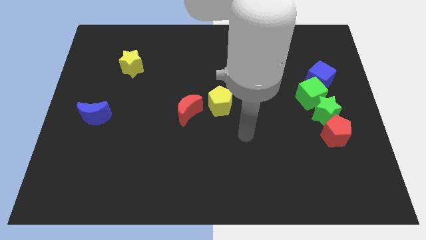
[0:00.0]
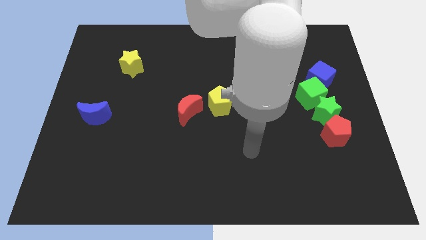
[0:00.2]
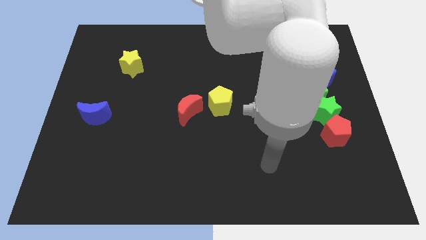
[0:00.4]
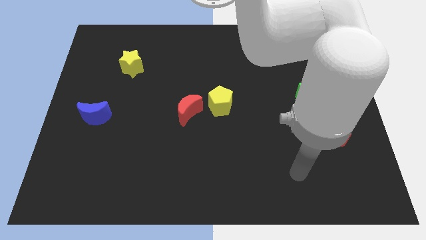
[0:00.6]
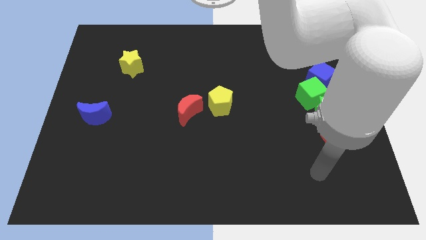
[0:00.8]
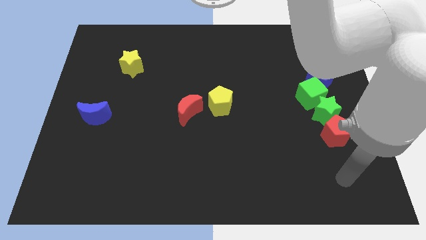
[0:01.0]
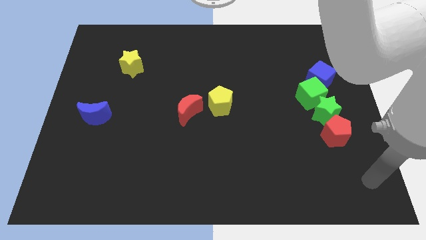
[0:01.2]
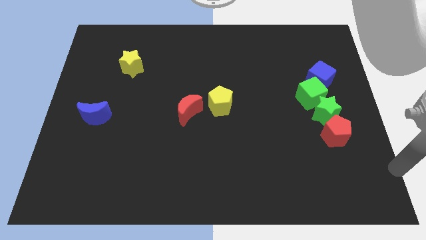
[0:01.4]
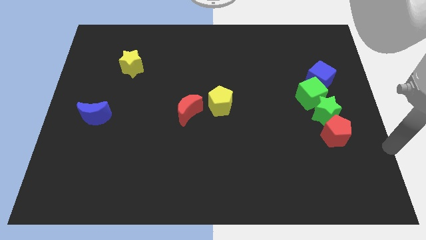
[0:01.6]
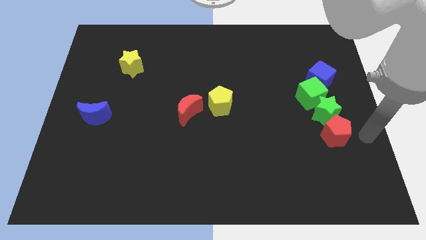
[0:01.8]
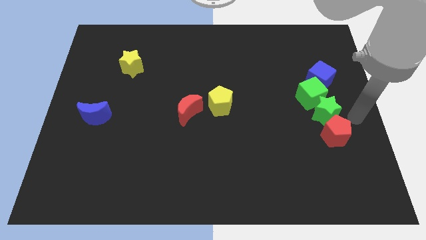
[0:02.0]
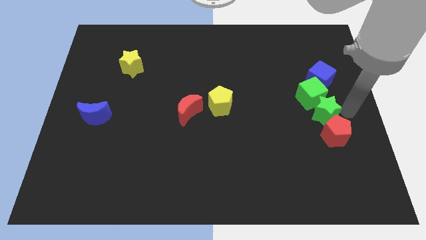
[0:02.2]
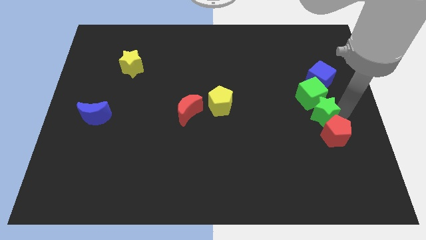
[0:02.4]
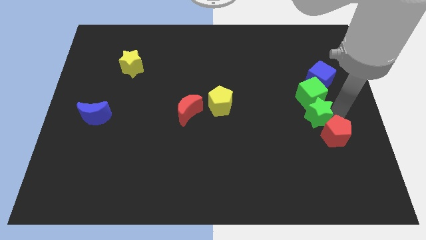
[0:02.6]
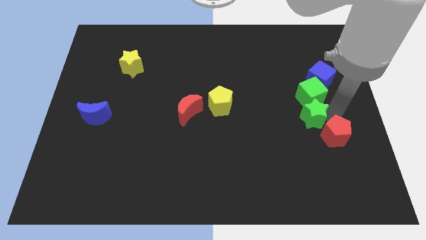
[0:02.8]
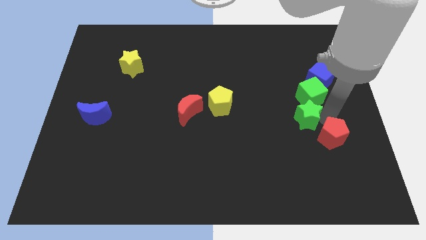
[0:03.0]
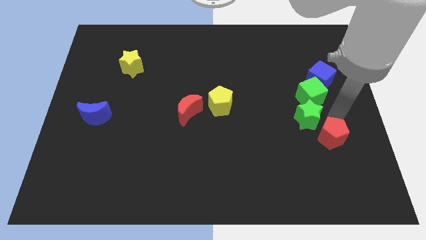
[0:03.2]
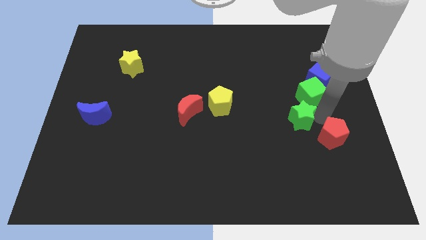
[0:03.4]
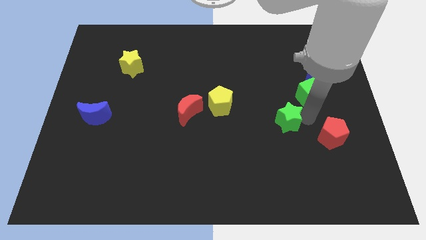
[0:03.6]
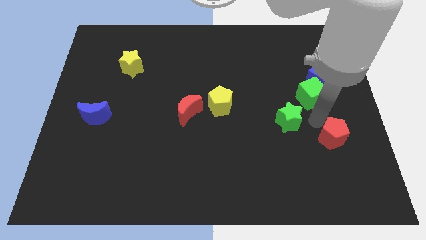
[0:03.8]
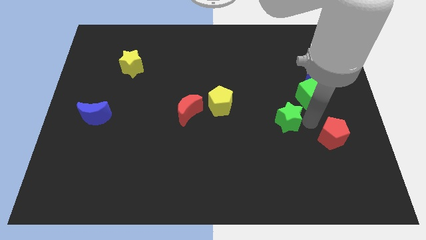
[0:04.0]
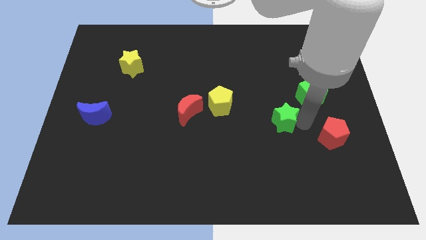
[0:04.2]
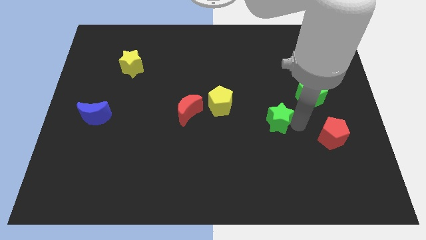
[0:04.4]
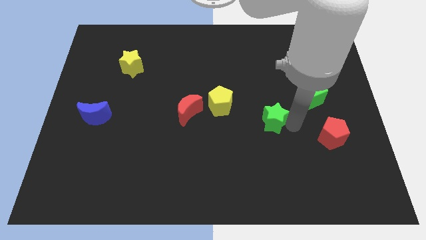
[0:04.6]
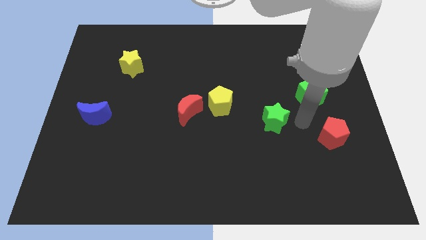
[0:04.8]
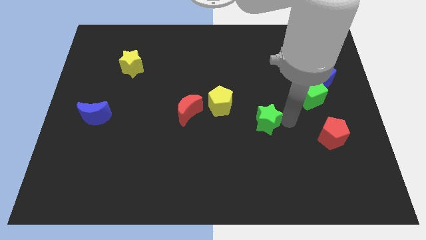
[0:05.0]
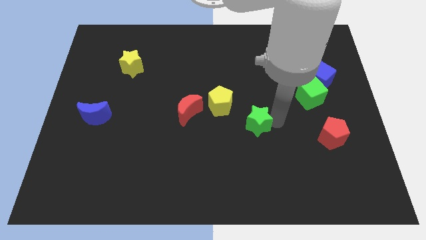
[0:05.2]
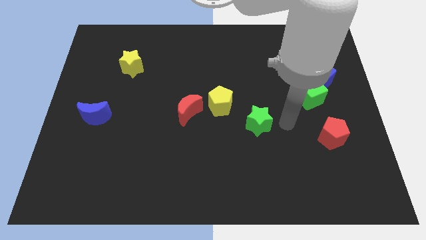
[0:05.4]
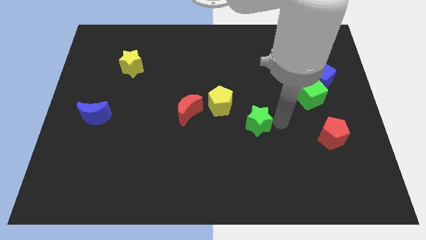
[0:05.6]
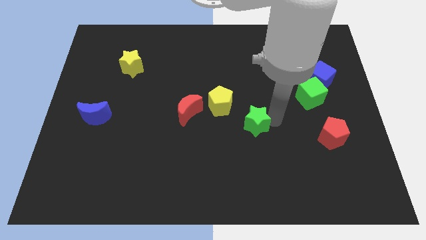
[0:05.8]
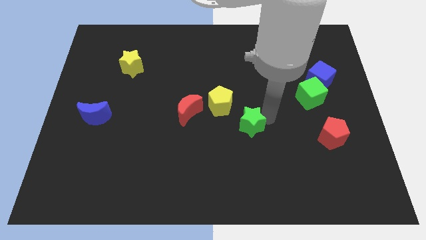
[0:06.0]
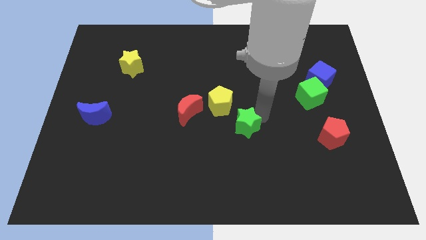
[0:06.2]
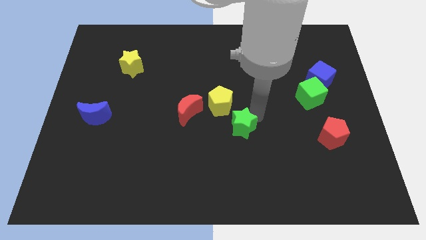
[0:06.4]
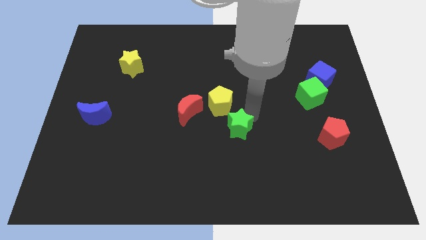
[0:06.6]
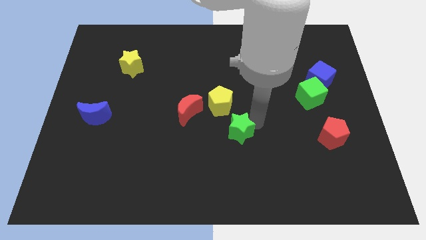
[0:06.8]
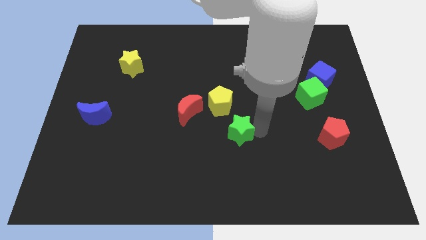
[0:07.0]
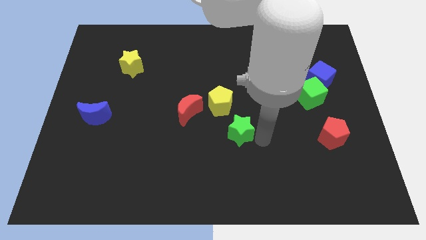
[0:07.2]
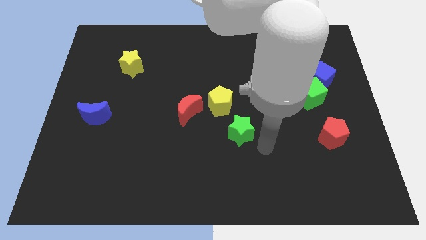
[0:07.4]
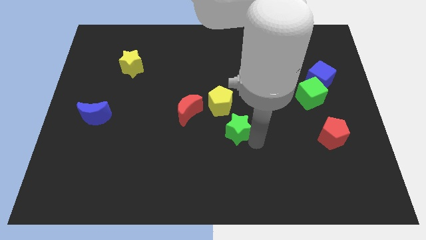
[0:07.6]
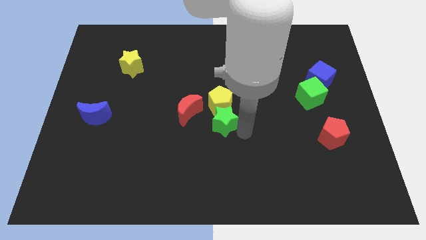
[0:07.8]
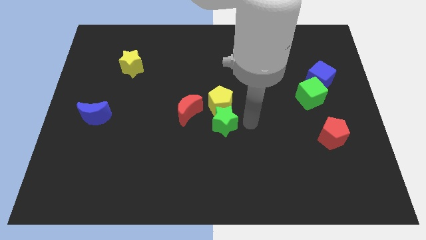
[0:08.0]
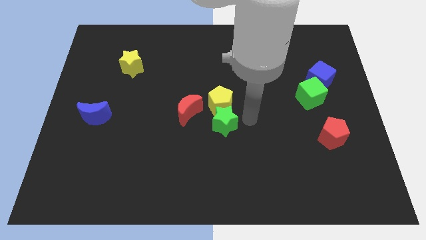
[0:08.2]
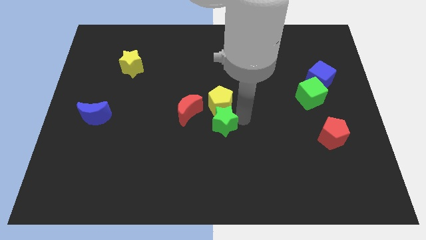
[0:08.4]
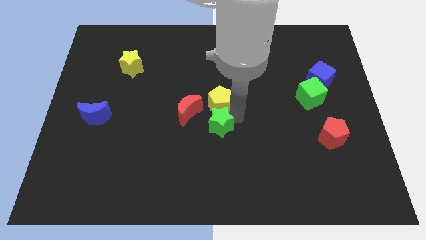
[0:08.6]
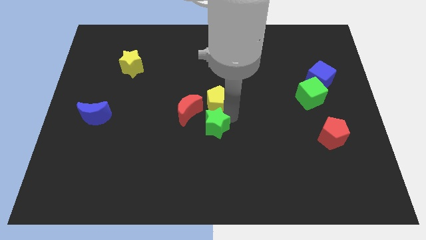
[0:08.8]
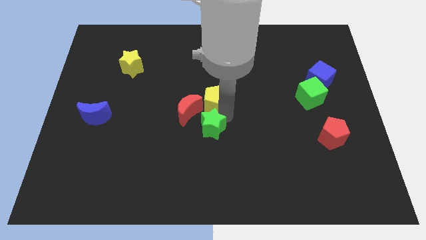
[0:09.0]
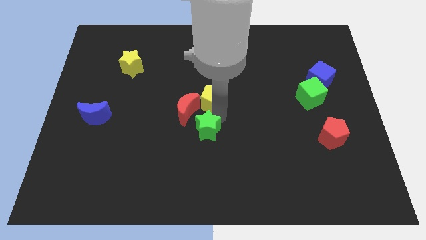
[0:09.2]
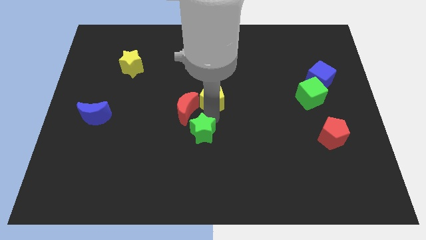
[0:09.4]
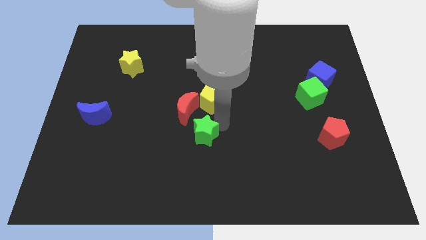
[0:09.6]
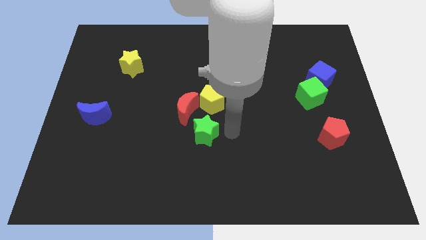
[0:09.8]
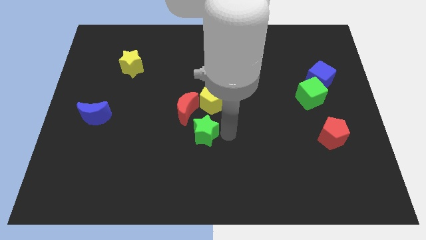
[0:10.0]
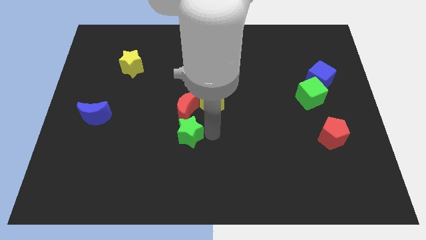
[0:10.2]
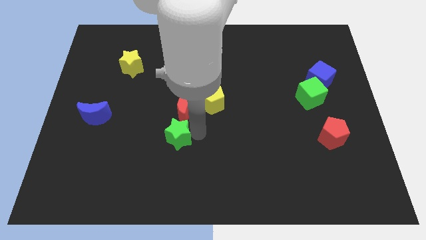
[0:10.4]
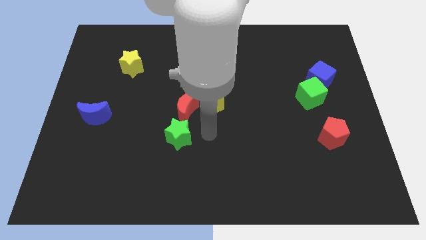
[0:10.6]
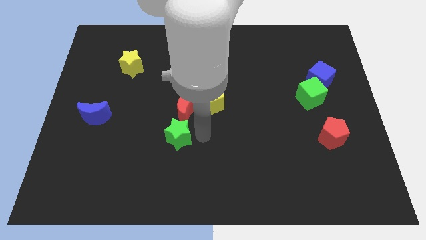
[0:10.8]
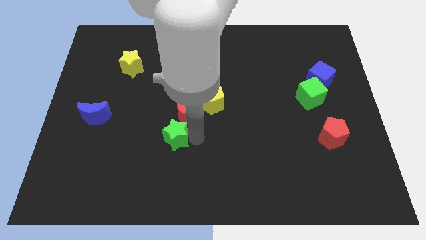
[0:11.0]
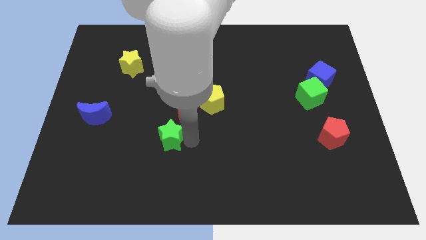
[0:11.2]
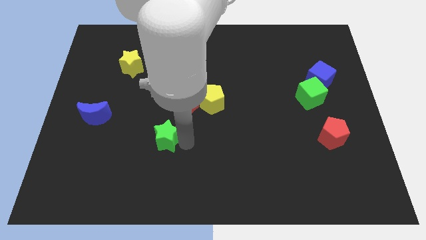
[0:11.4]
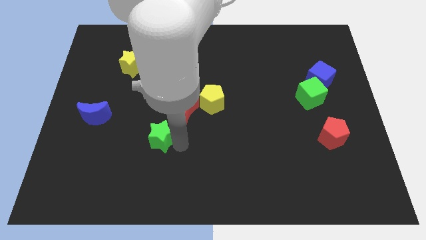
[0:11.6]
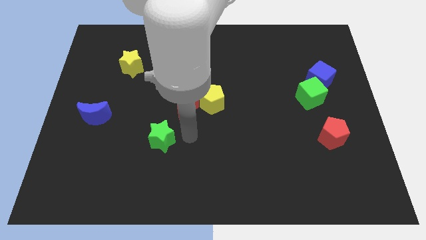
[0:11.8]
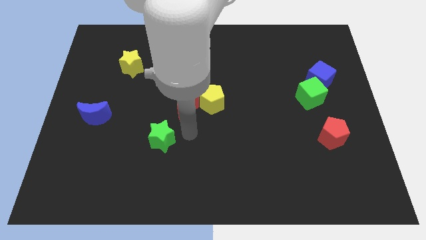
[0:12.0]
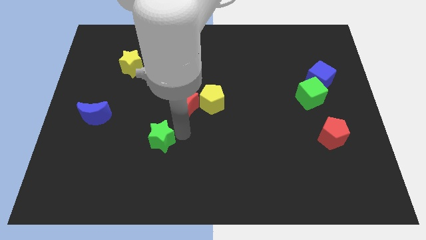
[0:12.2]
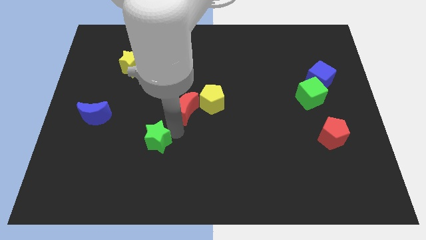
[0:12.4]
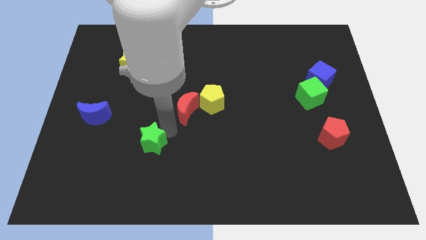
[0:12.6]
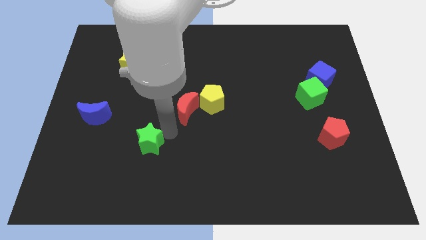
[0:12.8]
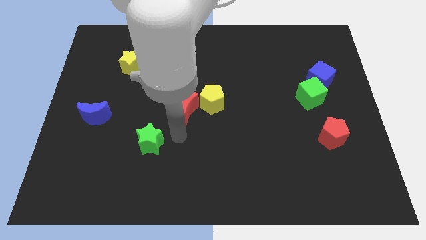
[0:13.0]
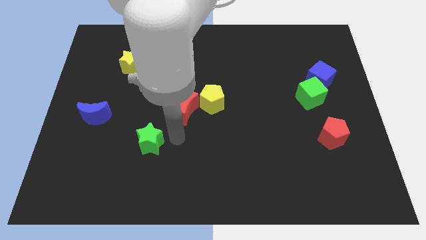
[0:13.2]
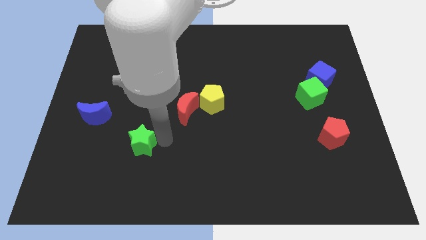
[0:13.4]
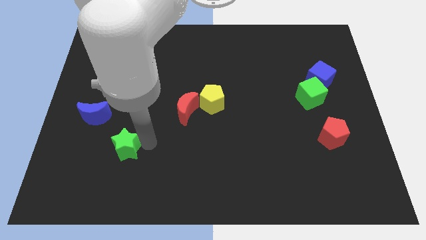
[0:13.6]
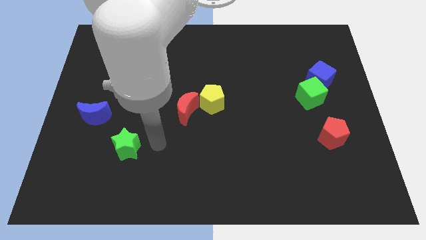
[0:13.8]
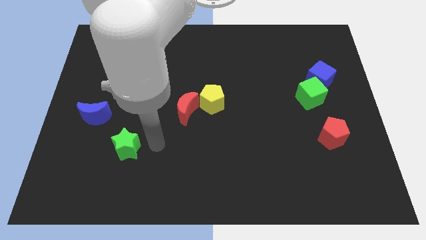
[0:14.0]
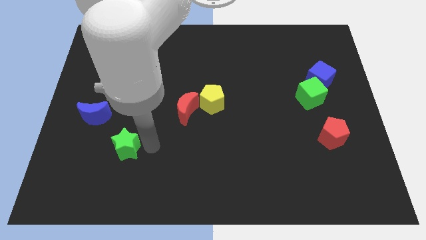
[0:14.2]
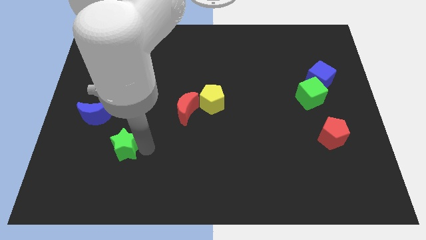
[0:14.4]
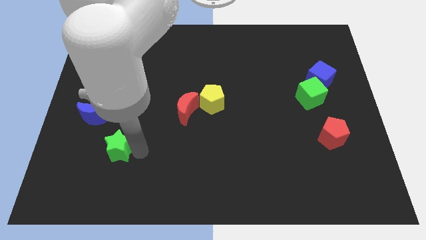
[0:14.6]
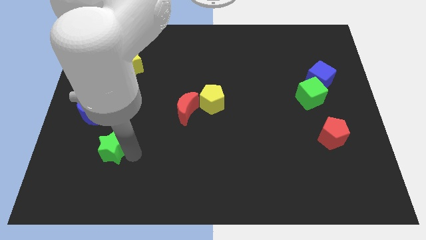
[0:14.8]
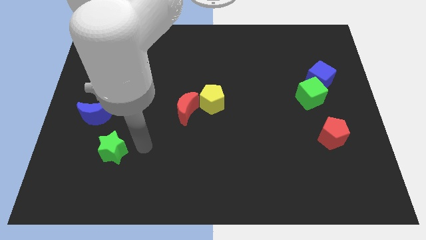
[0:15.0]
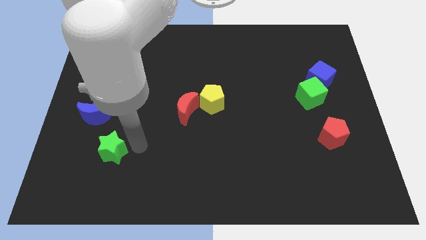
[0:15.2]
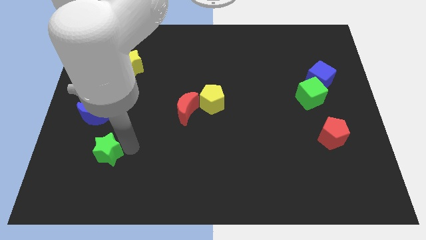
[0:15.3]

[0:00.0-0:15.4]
move the green star below the blue moon

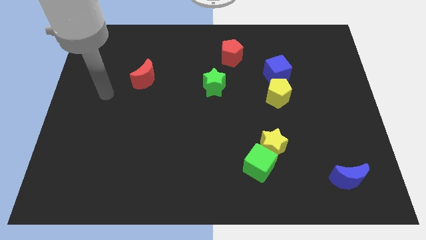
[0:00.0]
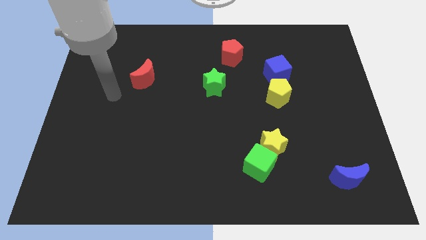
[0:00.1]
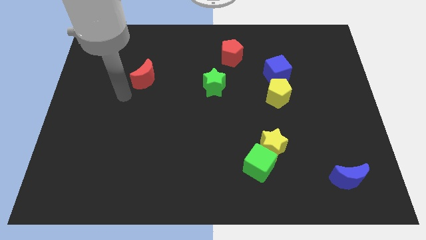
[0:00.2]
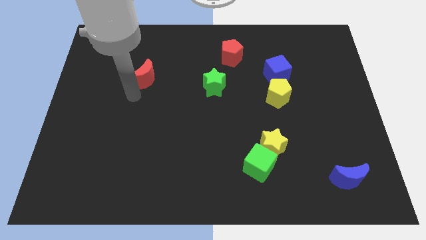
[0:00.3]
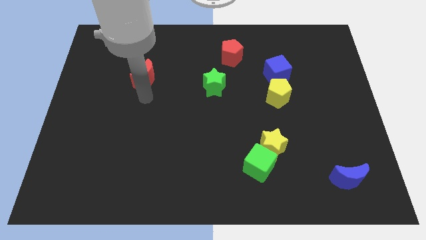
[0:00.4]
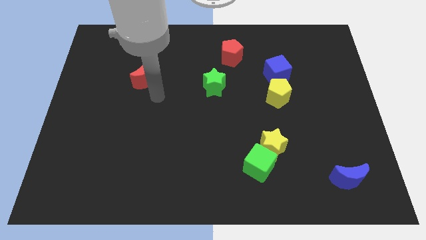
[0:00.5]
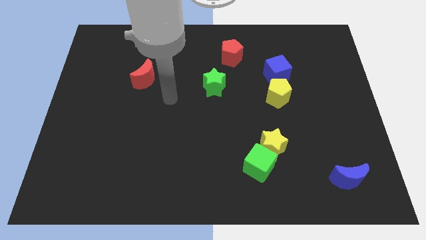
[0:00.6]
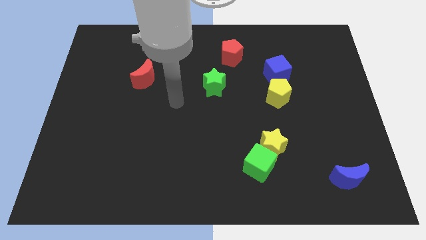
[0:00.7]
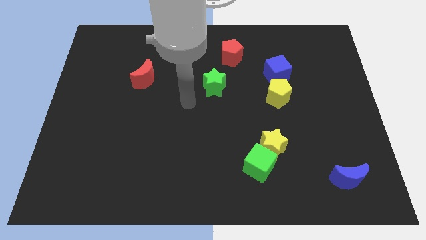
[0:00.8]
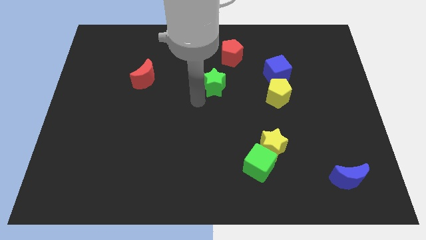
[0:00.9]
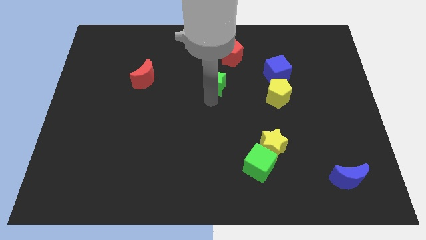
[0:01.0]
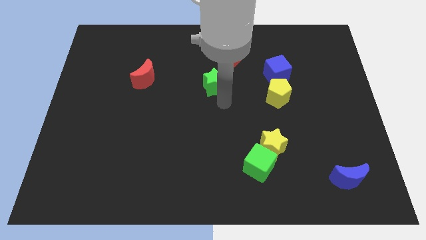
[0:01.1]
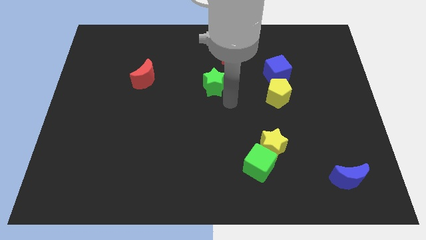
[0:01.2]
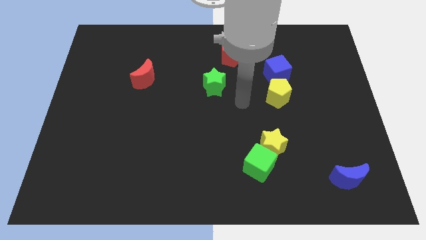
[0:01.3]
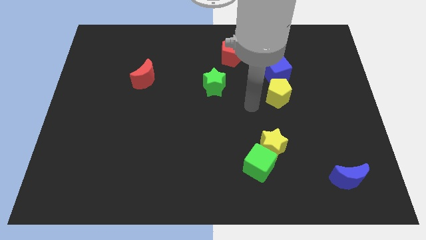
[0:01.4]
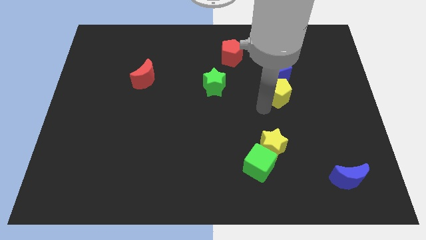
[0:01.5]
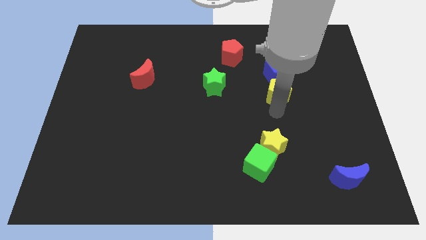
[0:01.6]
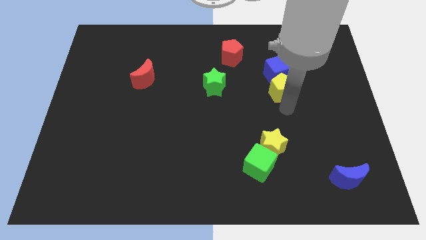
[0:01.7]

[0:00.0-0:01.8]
push the blue cube diagonally up and to the left of the yellow pentagon
